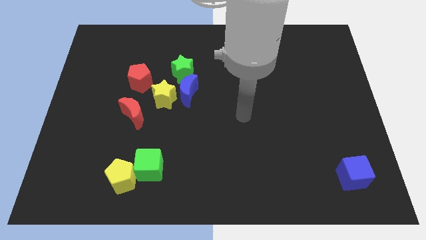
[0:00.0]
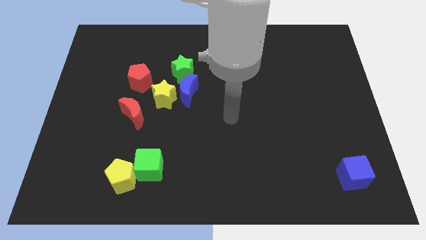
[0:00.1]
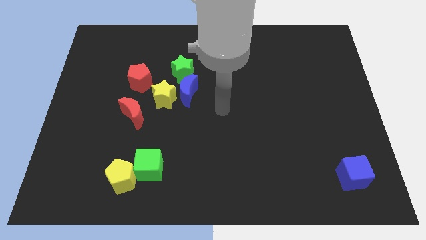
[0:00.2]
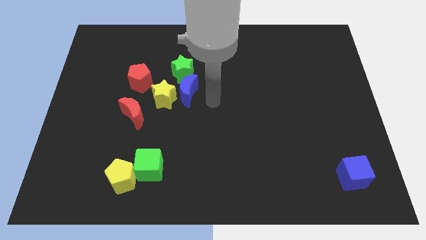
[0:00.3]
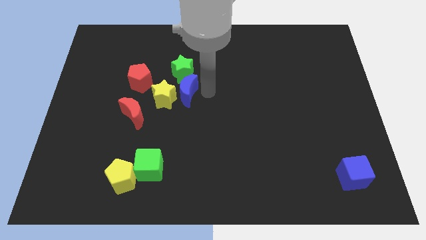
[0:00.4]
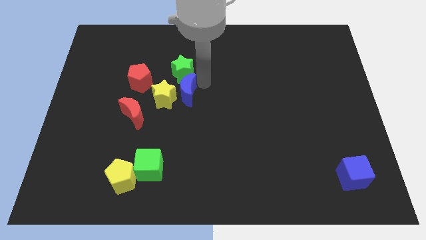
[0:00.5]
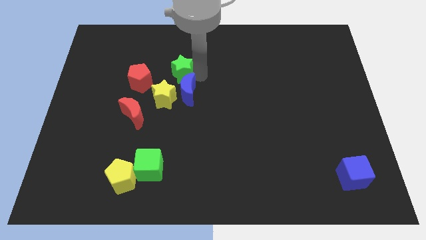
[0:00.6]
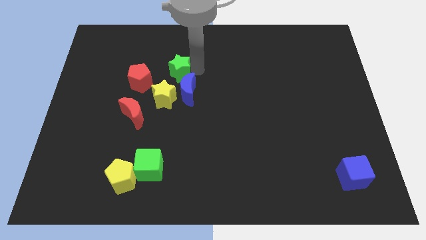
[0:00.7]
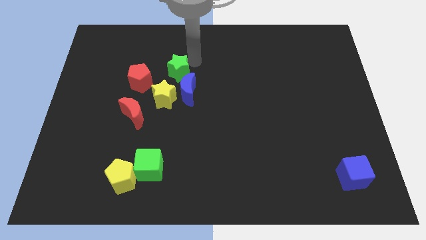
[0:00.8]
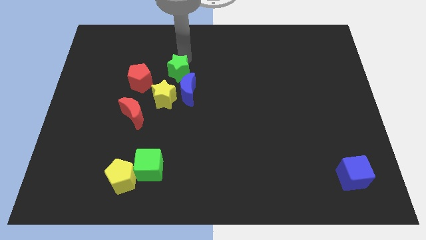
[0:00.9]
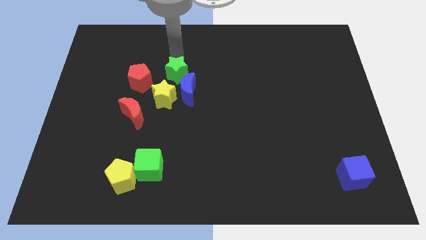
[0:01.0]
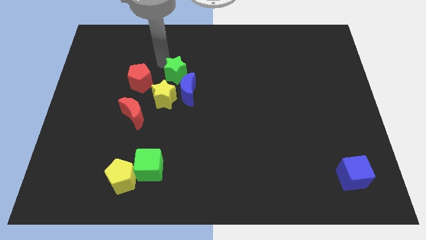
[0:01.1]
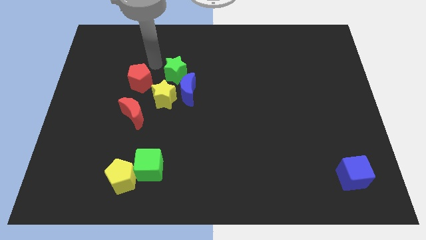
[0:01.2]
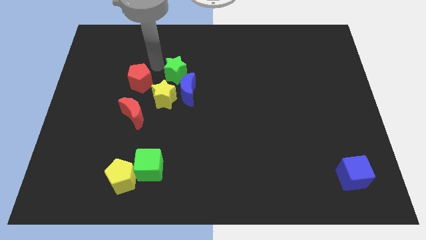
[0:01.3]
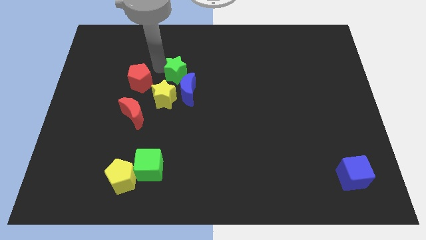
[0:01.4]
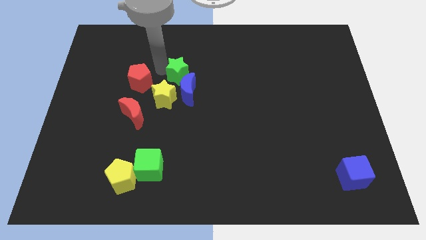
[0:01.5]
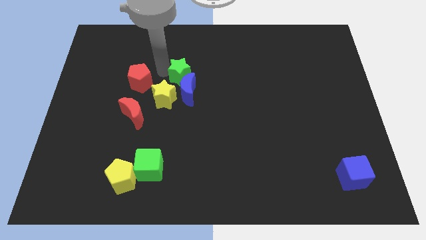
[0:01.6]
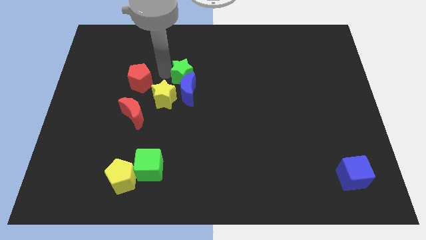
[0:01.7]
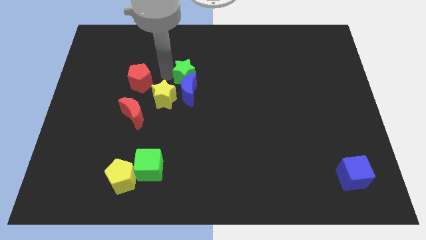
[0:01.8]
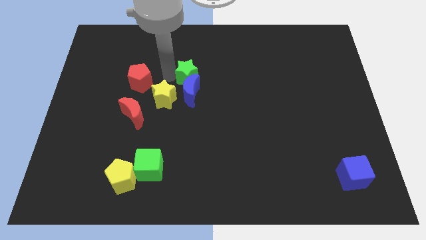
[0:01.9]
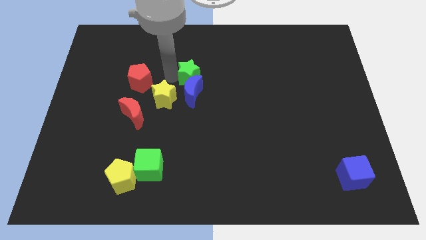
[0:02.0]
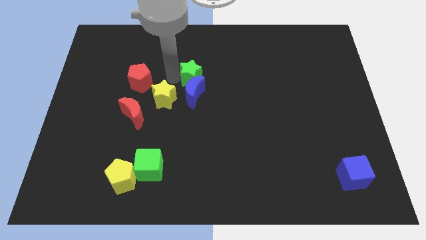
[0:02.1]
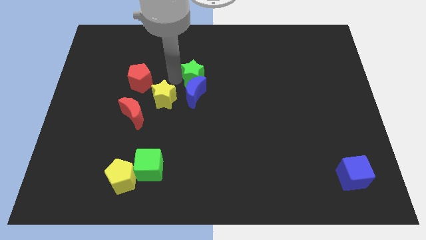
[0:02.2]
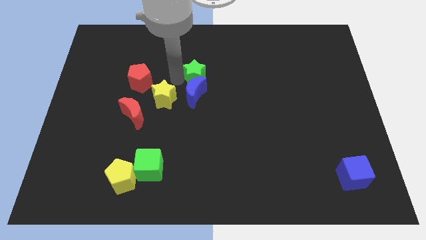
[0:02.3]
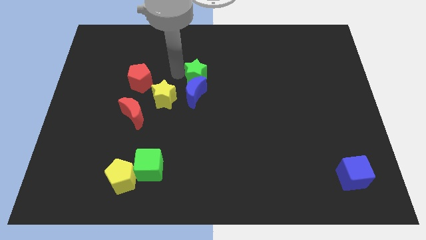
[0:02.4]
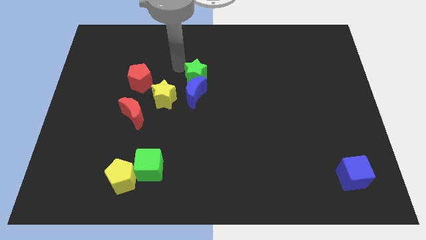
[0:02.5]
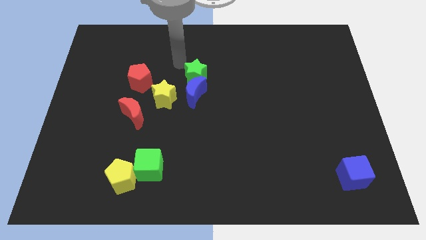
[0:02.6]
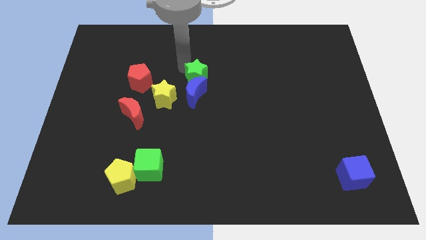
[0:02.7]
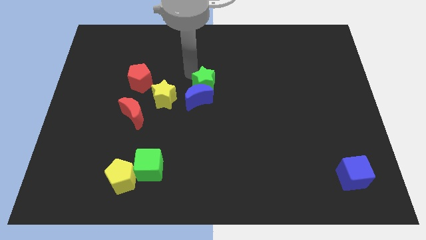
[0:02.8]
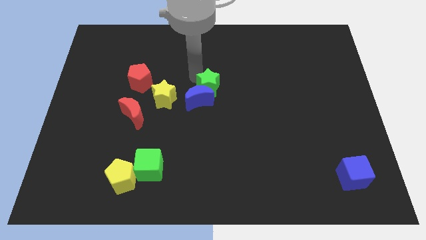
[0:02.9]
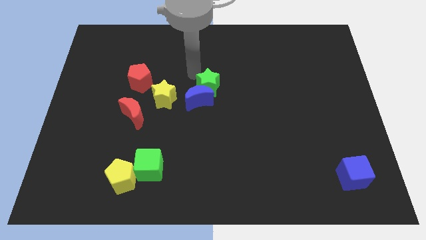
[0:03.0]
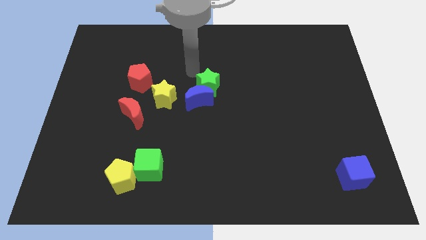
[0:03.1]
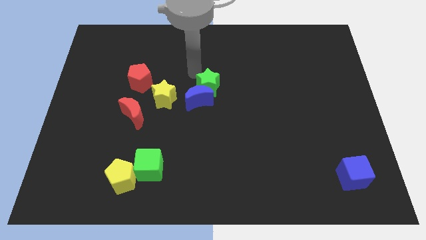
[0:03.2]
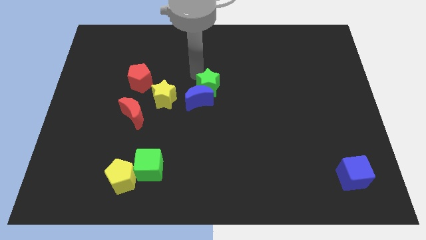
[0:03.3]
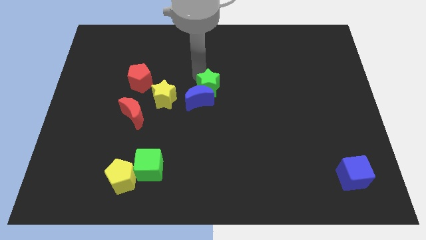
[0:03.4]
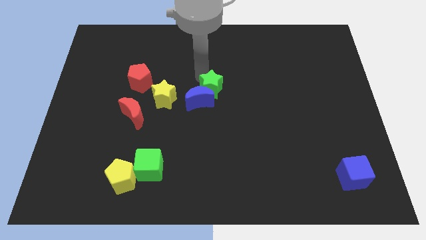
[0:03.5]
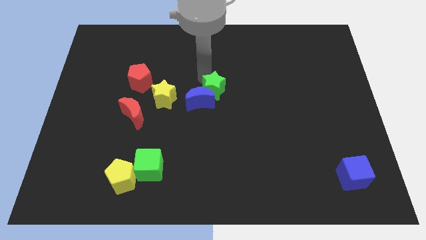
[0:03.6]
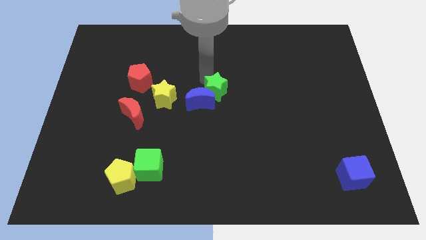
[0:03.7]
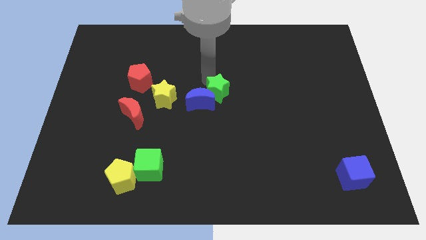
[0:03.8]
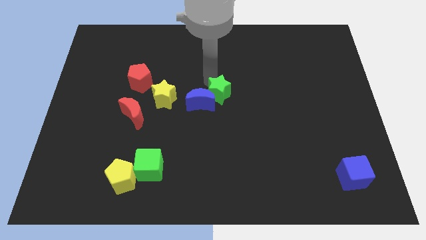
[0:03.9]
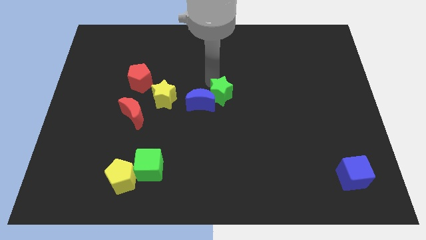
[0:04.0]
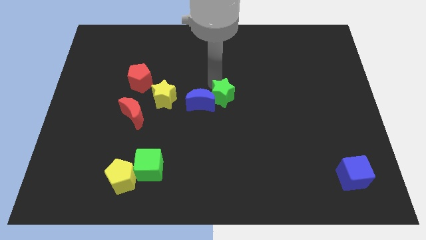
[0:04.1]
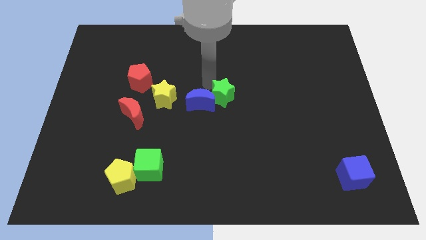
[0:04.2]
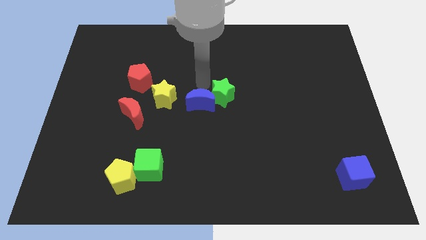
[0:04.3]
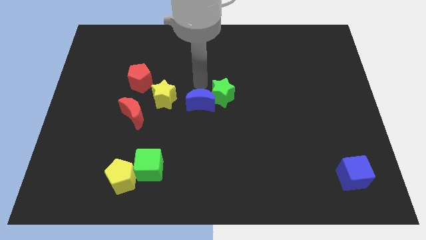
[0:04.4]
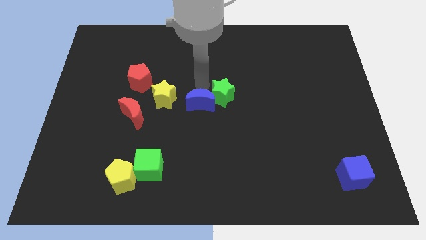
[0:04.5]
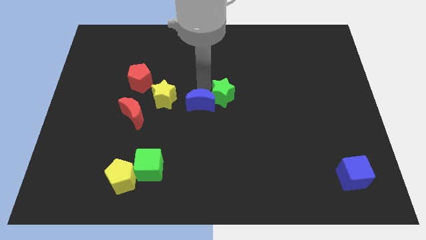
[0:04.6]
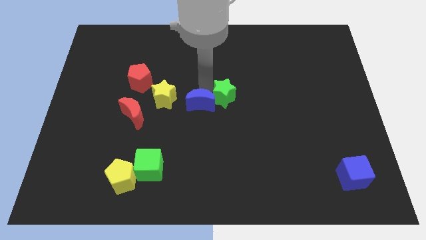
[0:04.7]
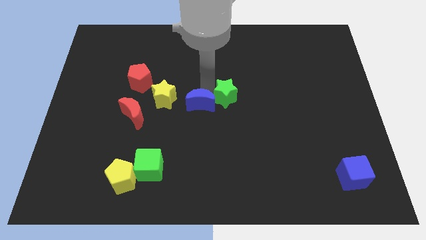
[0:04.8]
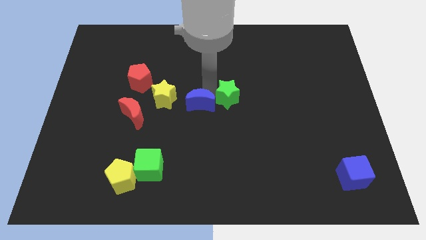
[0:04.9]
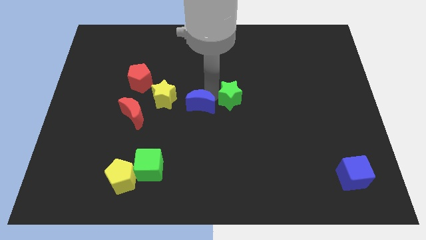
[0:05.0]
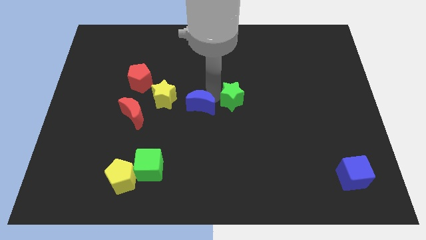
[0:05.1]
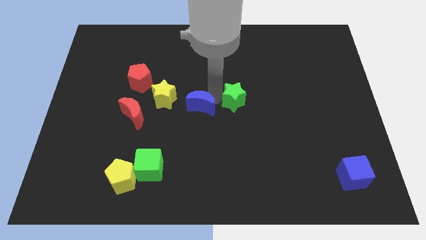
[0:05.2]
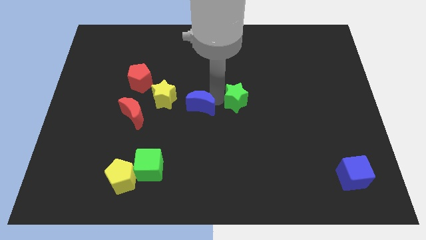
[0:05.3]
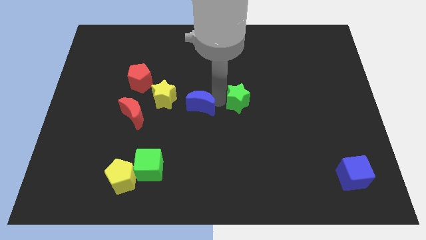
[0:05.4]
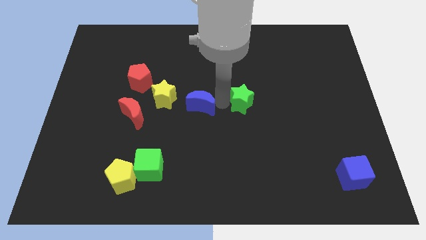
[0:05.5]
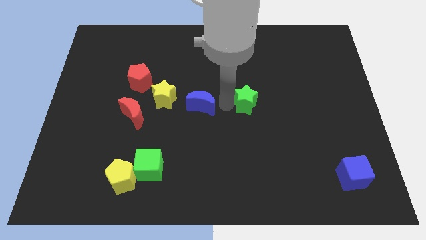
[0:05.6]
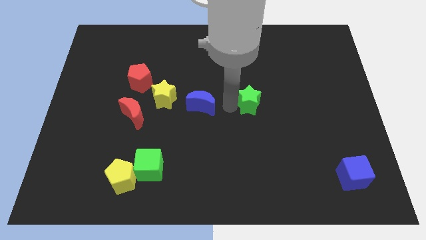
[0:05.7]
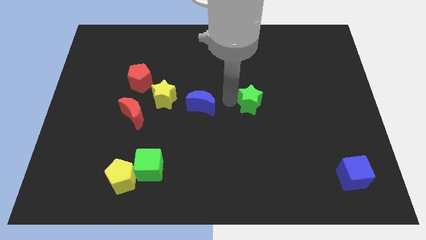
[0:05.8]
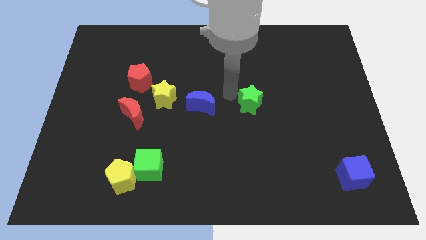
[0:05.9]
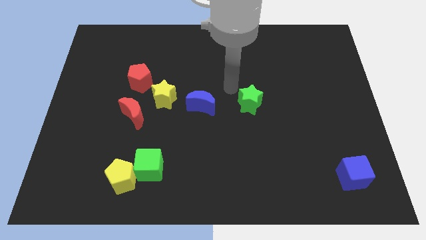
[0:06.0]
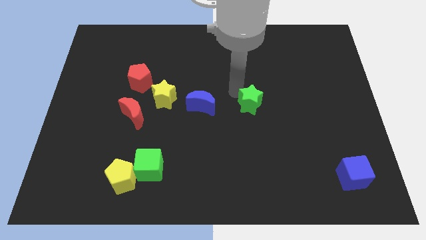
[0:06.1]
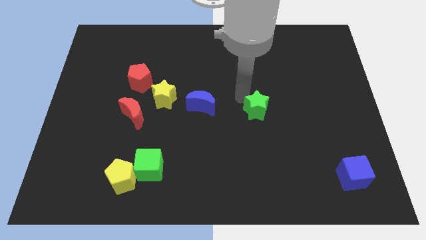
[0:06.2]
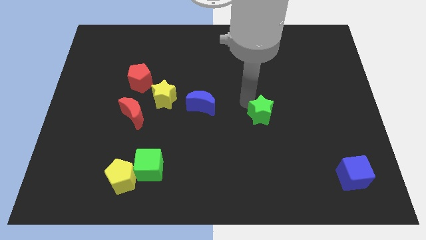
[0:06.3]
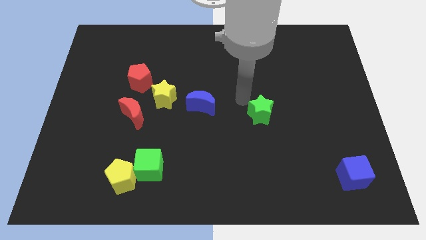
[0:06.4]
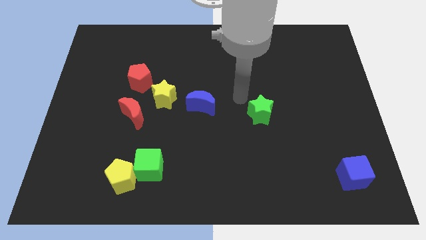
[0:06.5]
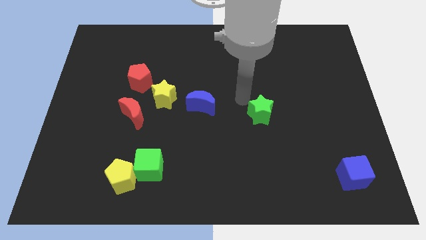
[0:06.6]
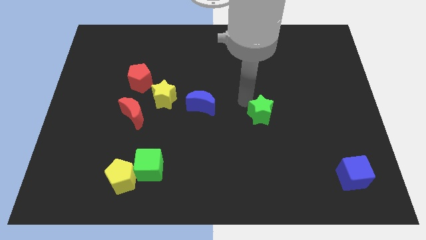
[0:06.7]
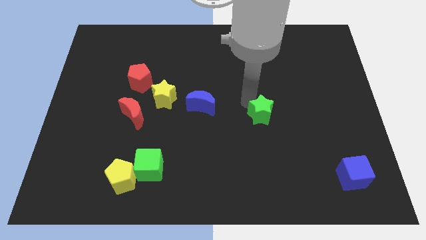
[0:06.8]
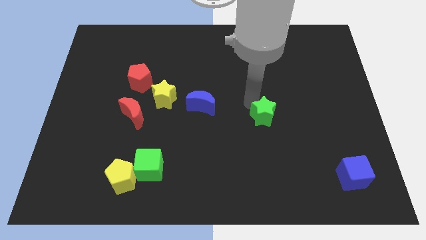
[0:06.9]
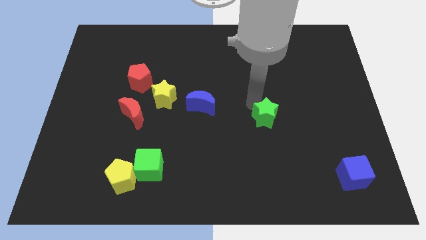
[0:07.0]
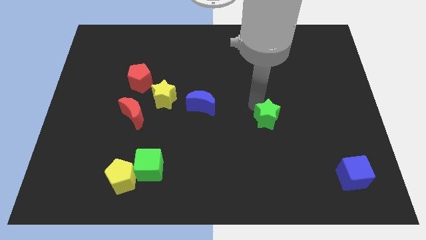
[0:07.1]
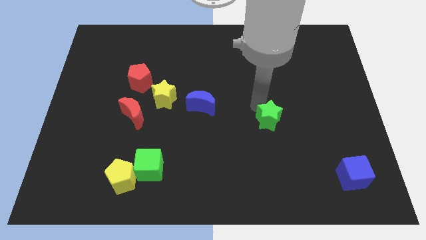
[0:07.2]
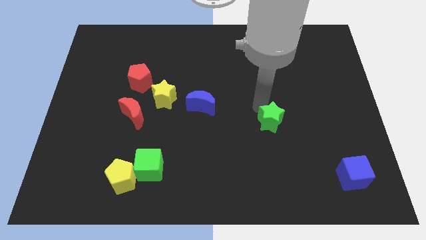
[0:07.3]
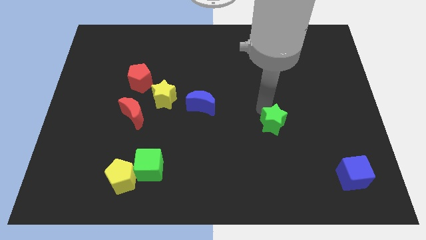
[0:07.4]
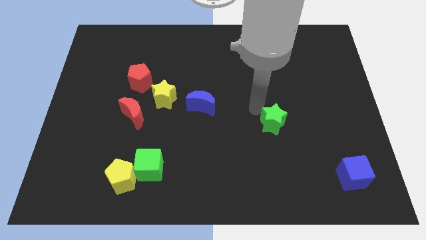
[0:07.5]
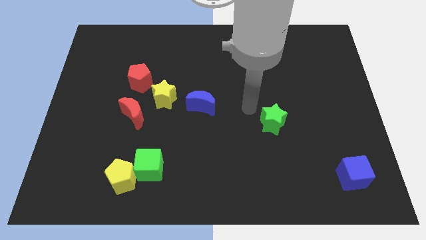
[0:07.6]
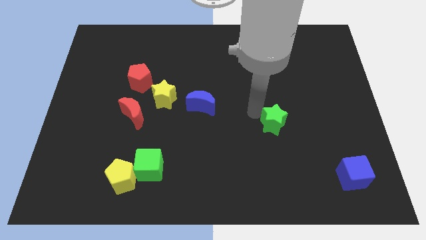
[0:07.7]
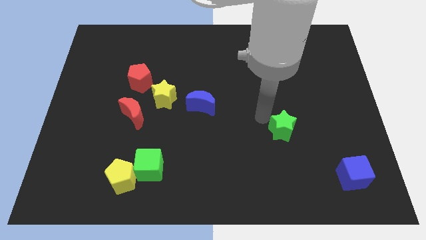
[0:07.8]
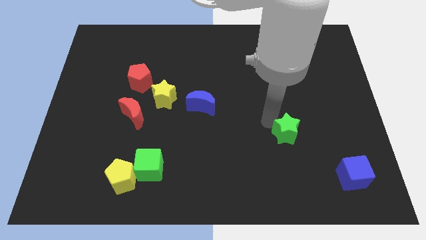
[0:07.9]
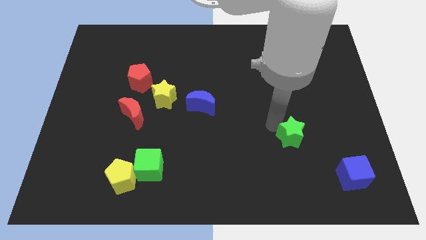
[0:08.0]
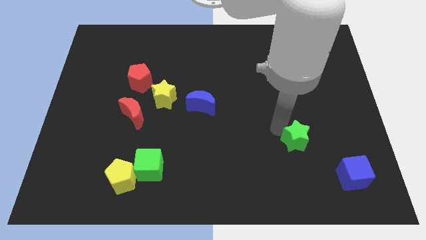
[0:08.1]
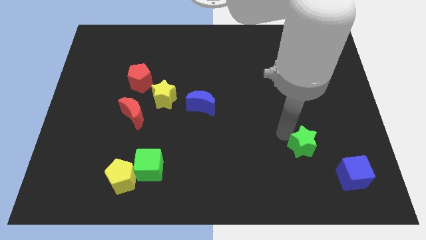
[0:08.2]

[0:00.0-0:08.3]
slide the green star to the top left of the blue cube

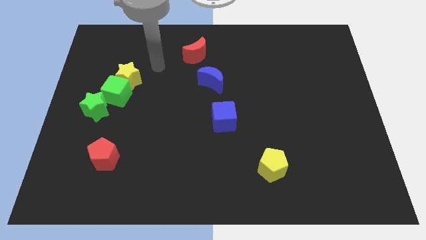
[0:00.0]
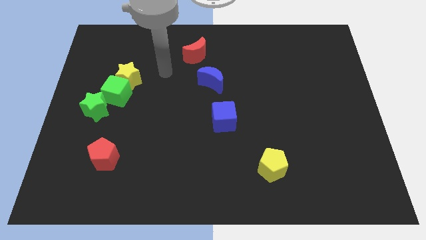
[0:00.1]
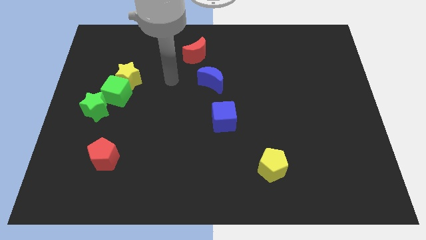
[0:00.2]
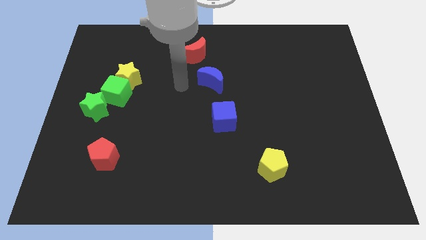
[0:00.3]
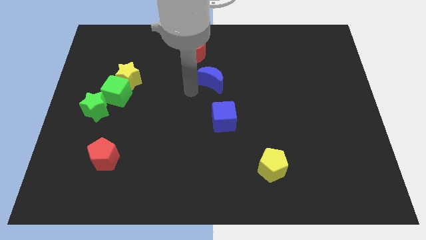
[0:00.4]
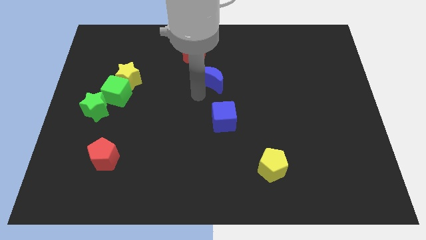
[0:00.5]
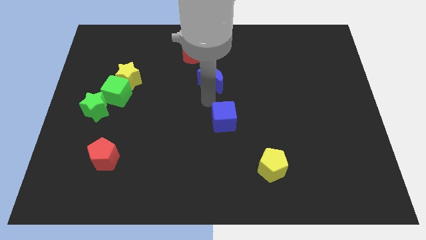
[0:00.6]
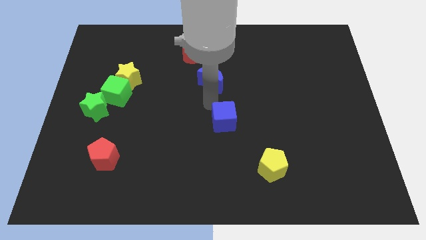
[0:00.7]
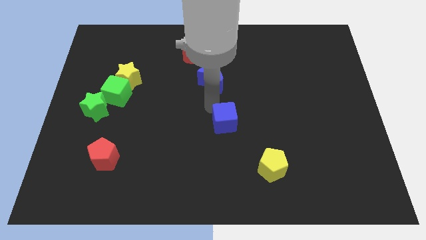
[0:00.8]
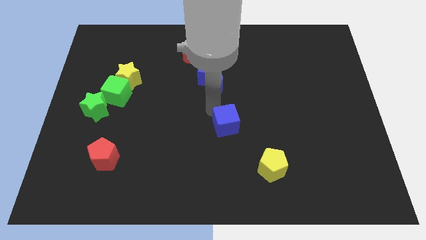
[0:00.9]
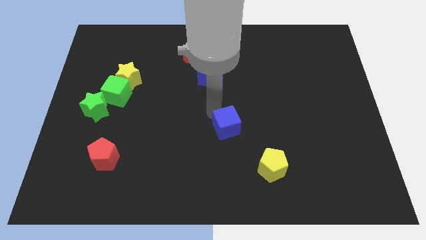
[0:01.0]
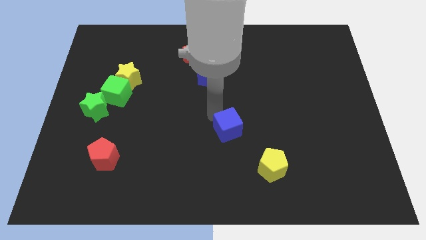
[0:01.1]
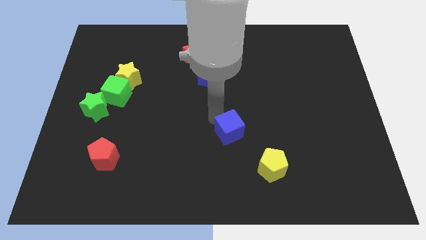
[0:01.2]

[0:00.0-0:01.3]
put the blue cube to the top left of the yellow pentagon
